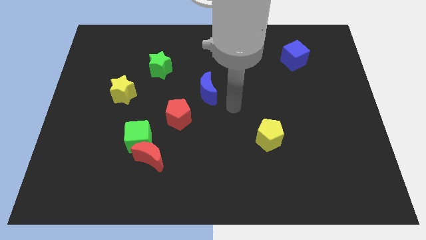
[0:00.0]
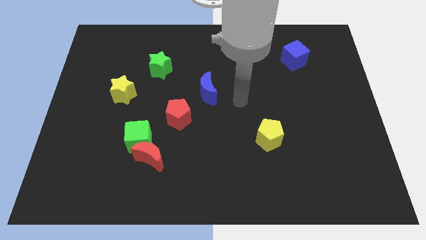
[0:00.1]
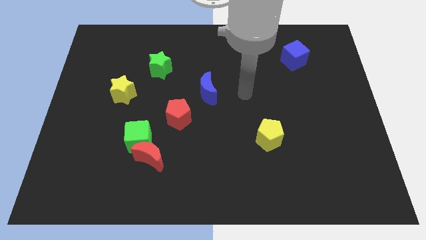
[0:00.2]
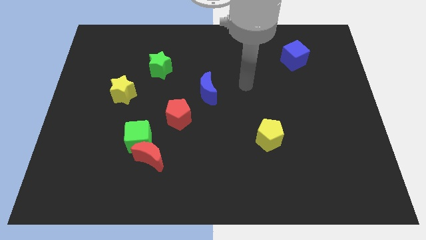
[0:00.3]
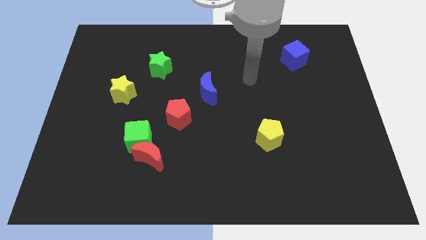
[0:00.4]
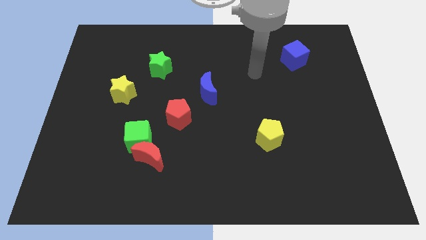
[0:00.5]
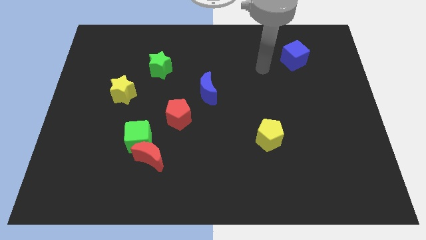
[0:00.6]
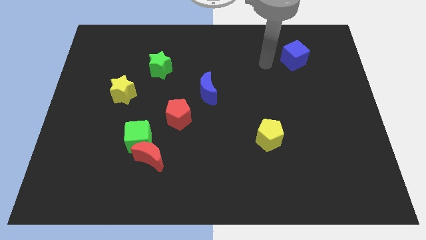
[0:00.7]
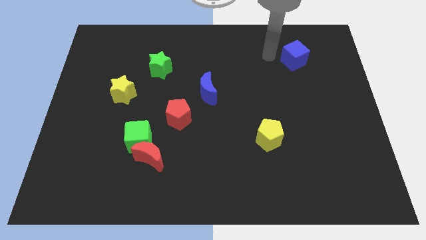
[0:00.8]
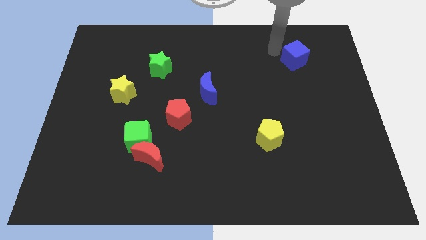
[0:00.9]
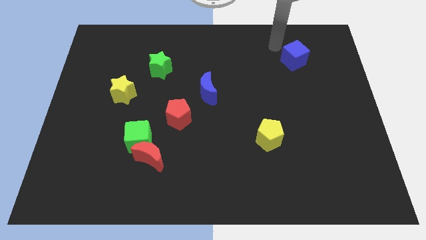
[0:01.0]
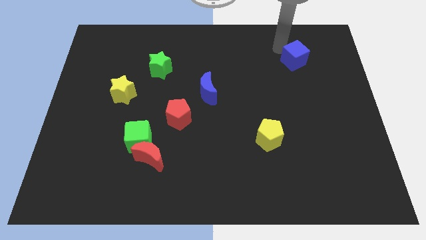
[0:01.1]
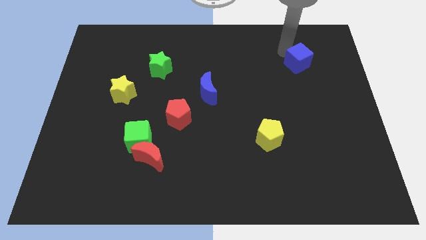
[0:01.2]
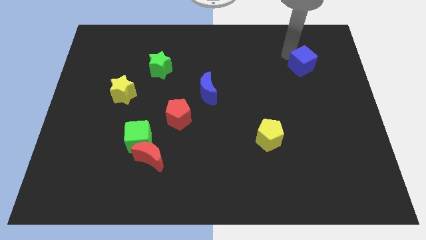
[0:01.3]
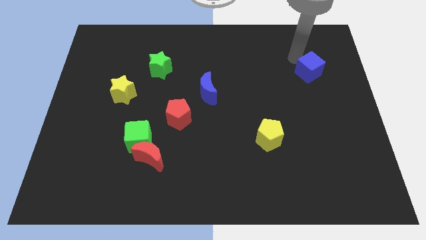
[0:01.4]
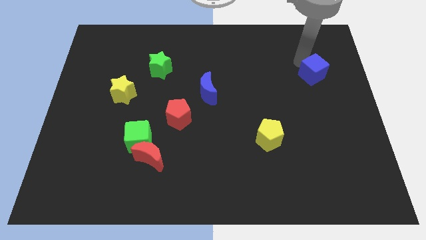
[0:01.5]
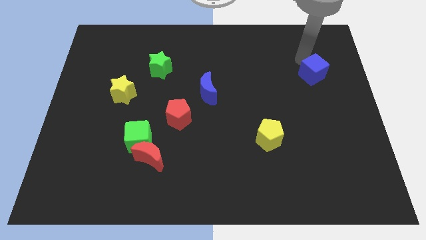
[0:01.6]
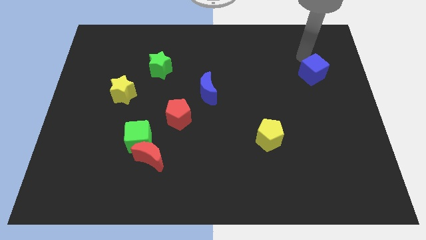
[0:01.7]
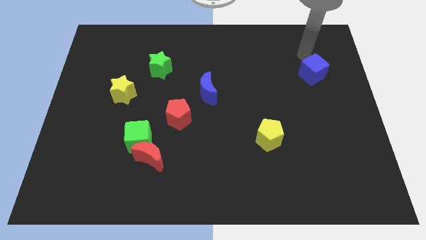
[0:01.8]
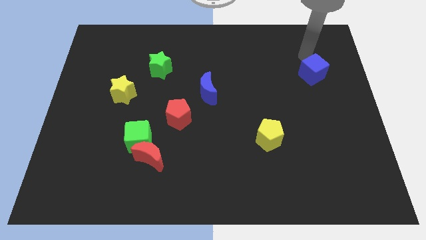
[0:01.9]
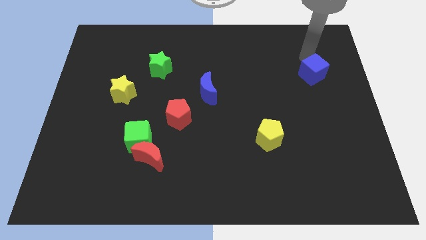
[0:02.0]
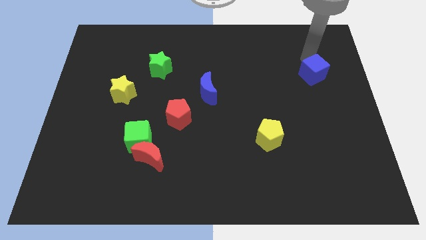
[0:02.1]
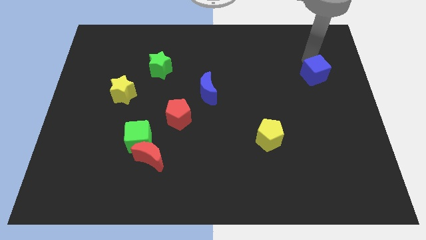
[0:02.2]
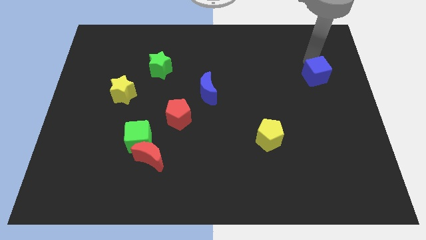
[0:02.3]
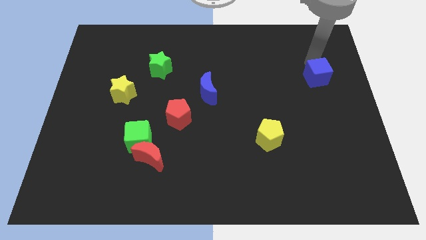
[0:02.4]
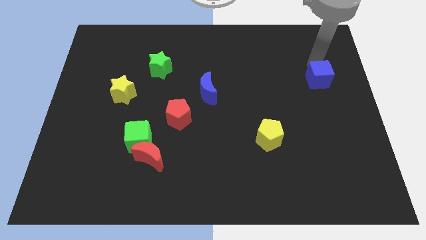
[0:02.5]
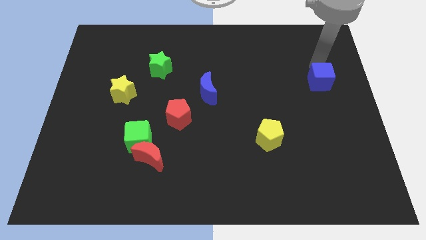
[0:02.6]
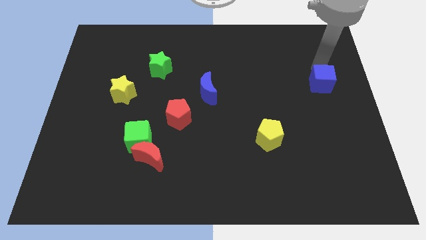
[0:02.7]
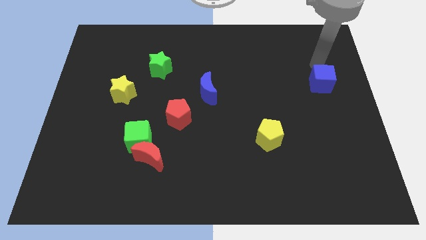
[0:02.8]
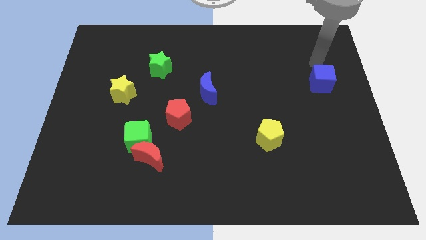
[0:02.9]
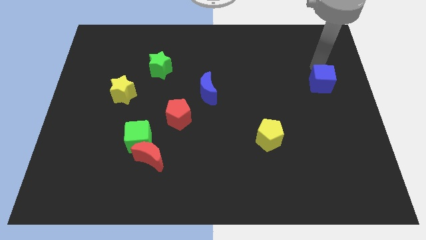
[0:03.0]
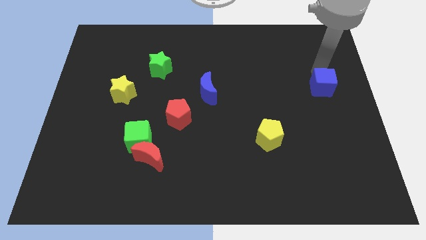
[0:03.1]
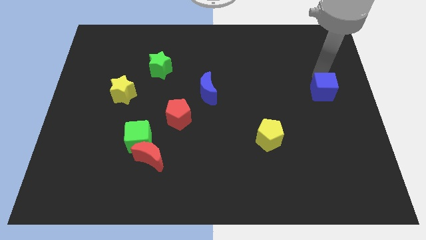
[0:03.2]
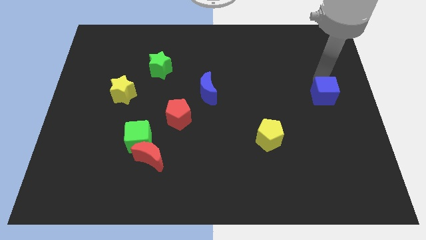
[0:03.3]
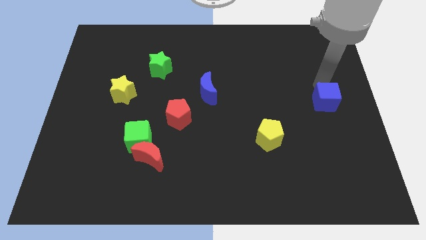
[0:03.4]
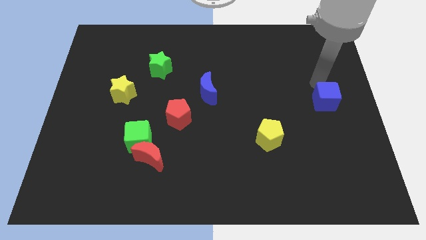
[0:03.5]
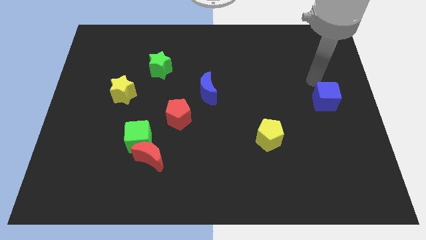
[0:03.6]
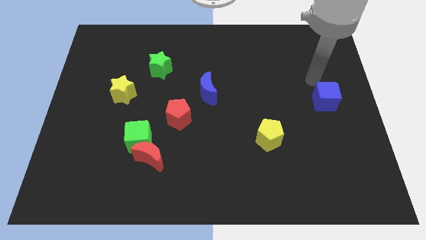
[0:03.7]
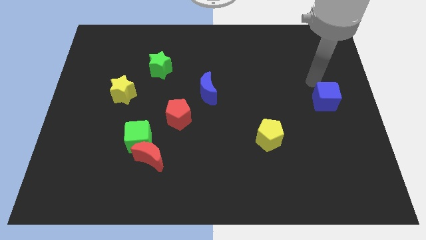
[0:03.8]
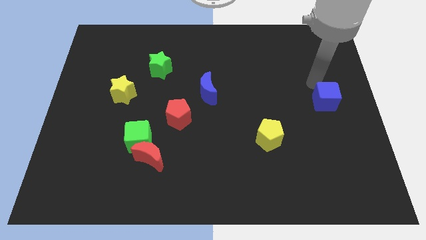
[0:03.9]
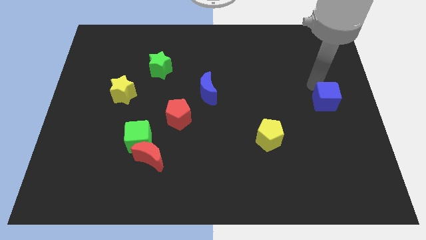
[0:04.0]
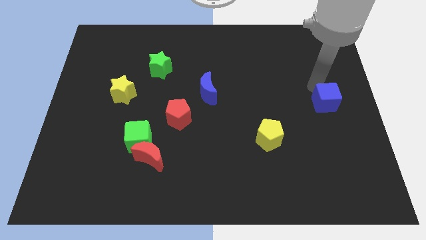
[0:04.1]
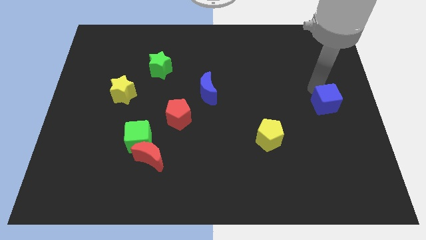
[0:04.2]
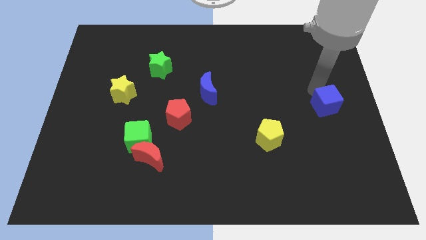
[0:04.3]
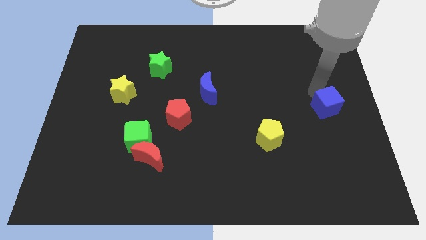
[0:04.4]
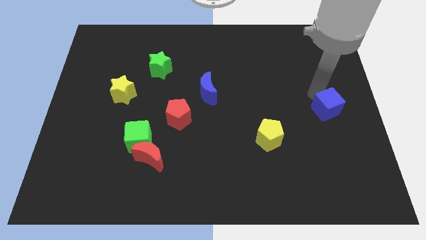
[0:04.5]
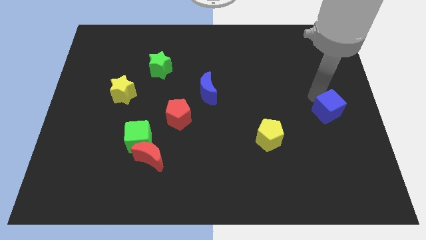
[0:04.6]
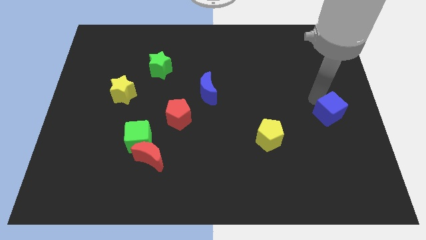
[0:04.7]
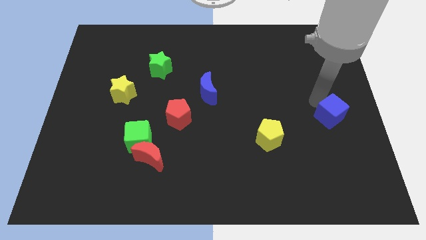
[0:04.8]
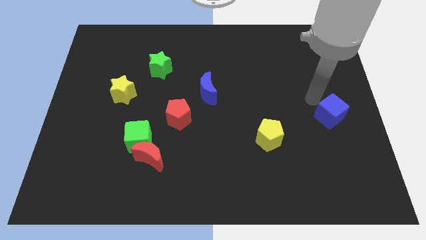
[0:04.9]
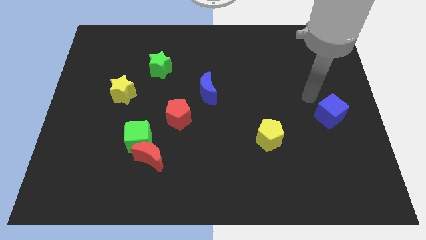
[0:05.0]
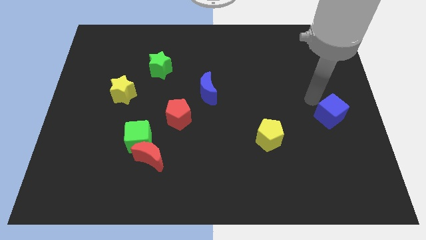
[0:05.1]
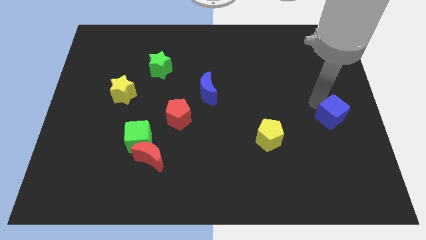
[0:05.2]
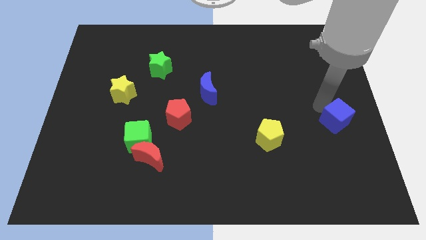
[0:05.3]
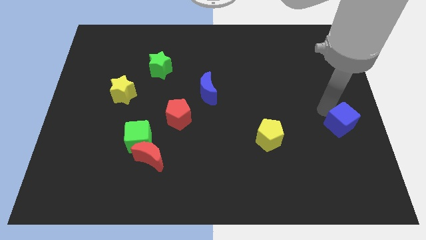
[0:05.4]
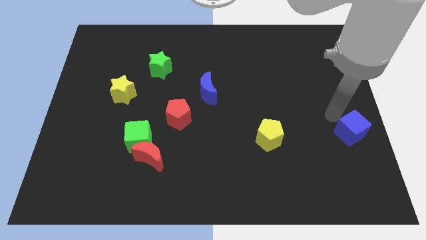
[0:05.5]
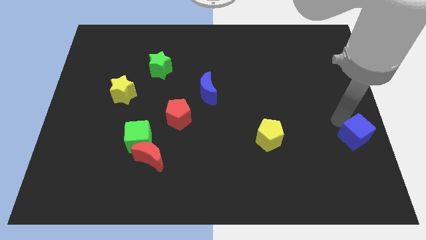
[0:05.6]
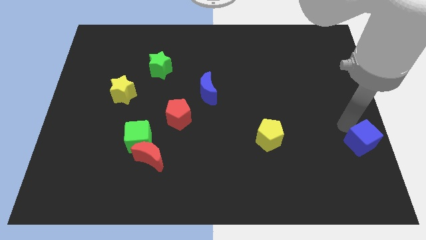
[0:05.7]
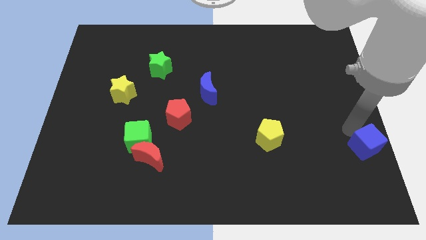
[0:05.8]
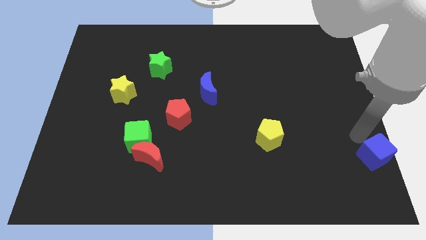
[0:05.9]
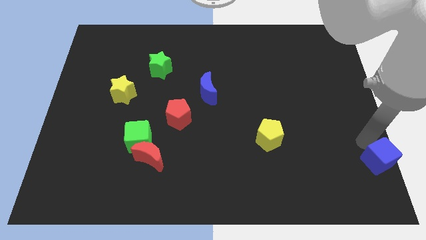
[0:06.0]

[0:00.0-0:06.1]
slide the blue cube to the lower right corner
